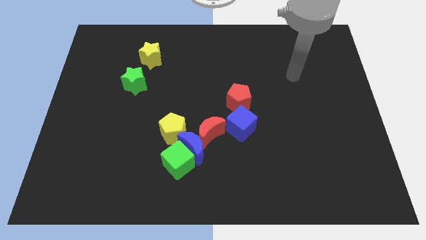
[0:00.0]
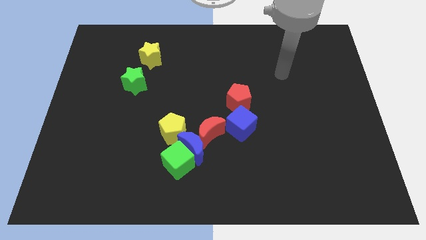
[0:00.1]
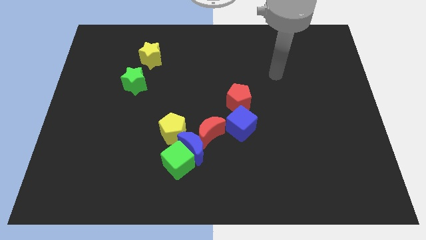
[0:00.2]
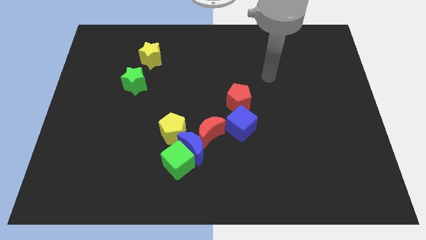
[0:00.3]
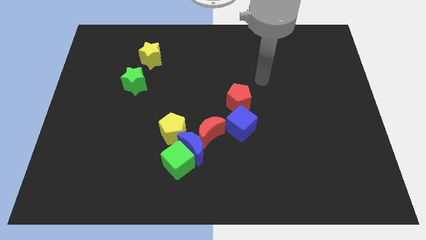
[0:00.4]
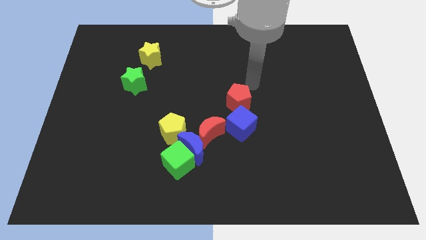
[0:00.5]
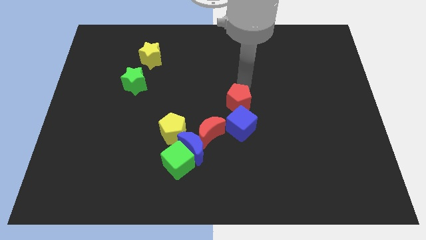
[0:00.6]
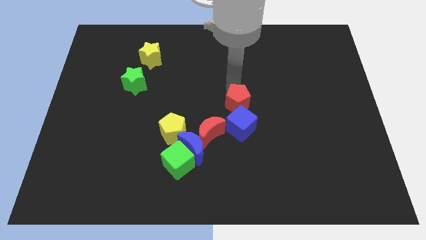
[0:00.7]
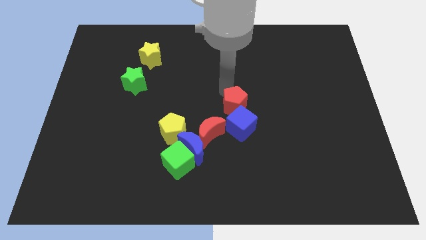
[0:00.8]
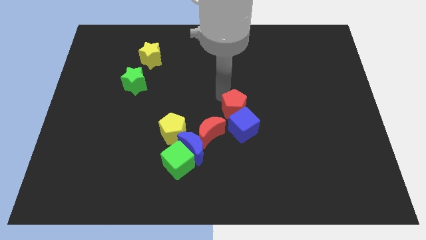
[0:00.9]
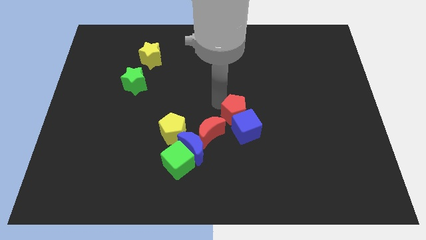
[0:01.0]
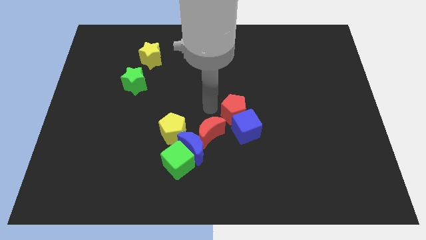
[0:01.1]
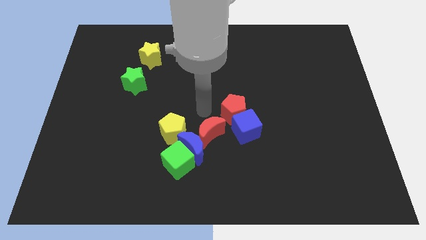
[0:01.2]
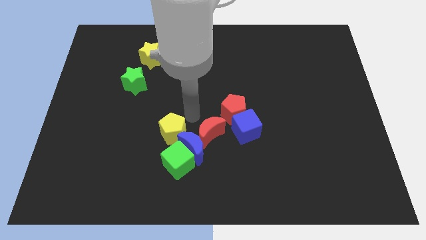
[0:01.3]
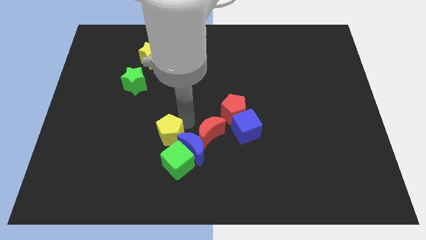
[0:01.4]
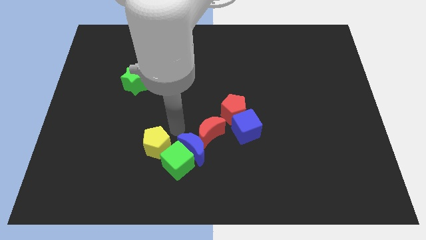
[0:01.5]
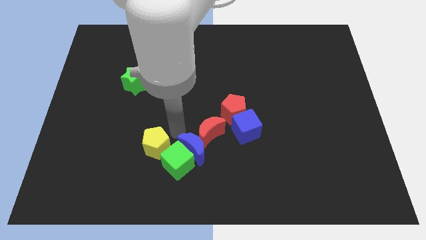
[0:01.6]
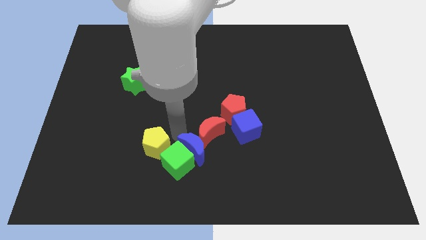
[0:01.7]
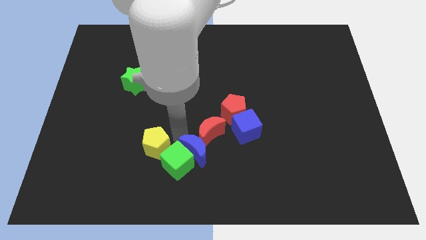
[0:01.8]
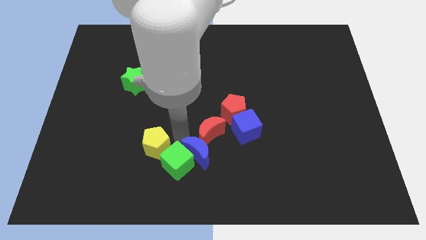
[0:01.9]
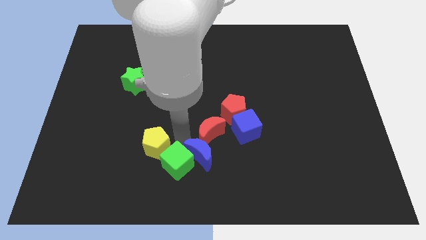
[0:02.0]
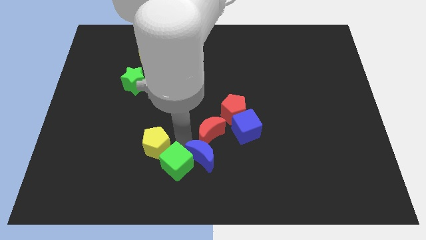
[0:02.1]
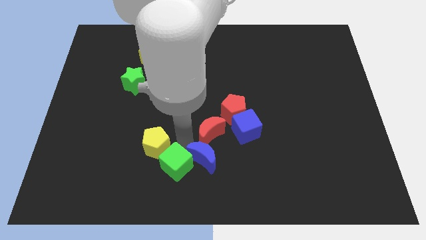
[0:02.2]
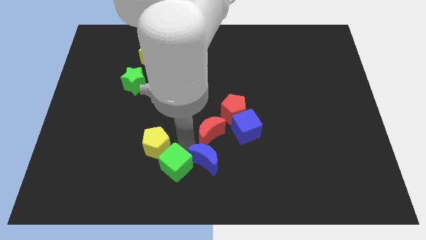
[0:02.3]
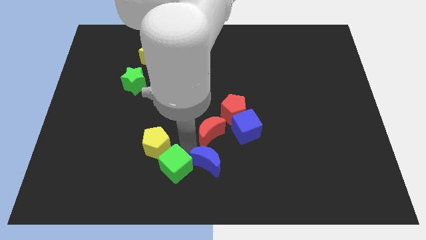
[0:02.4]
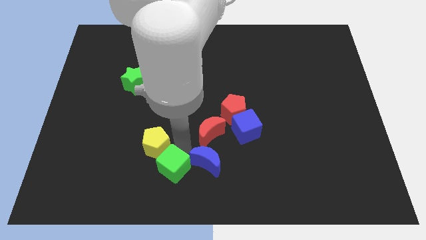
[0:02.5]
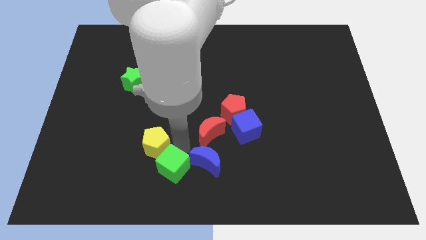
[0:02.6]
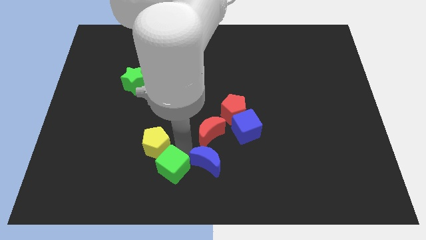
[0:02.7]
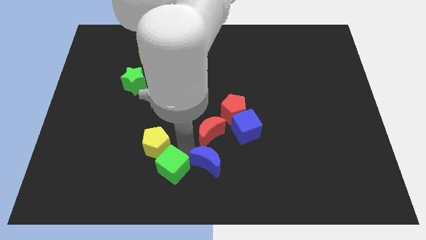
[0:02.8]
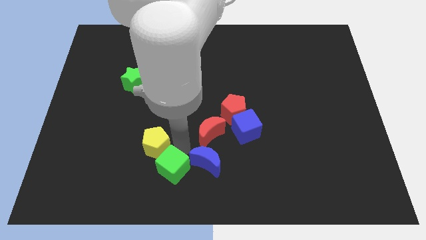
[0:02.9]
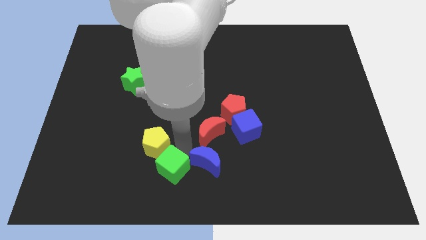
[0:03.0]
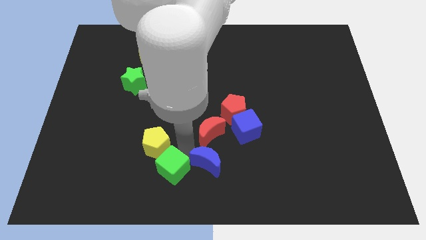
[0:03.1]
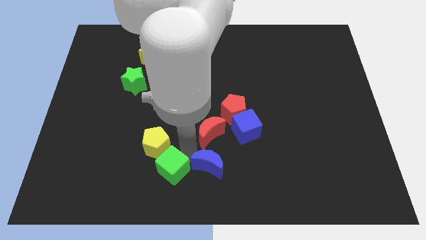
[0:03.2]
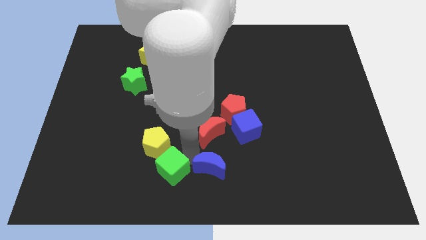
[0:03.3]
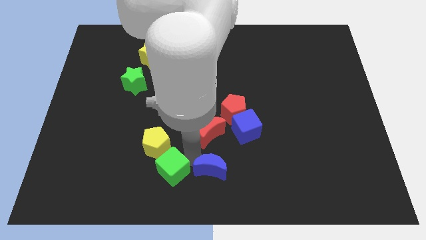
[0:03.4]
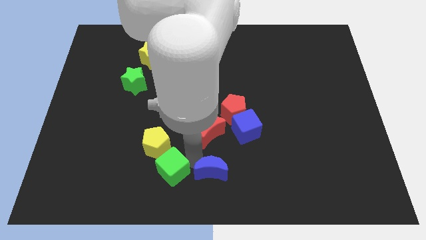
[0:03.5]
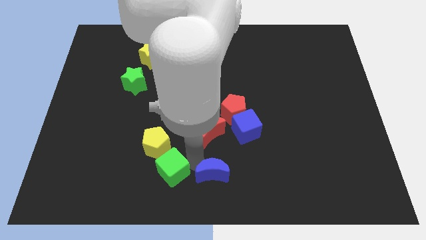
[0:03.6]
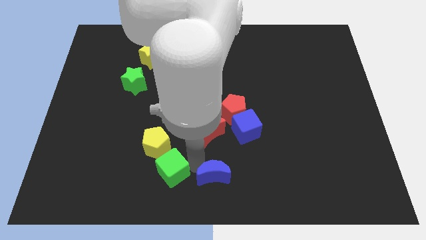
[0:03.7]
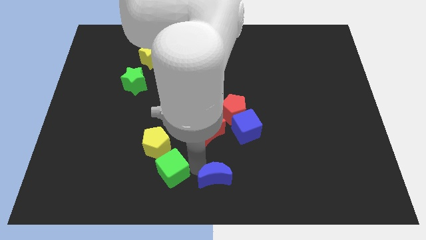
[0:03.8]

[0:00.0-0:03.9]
separate the blue moon from the green cube, red moon, and yellow pentagon

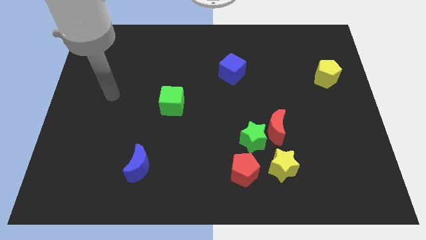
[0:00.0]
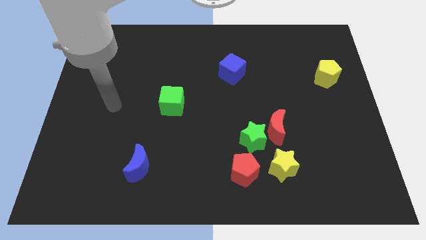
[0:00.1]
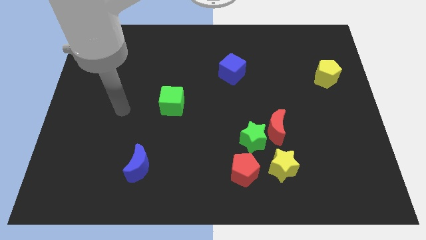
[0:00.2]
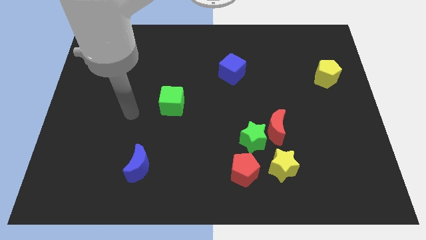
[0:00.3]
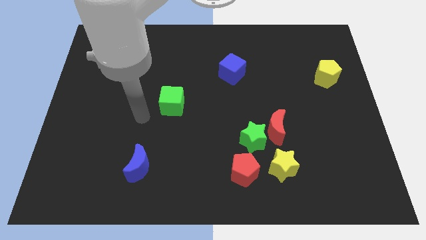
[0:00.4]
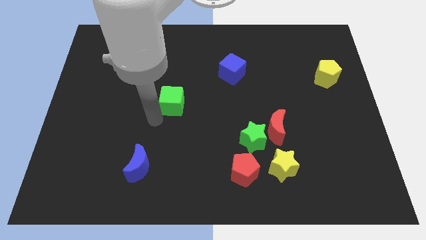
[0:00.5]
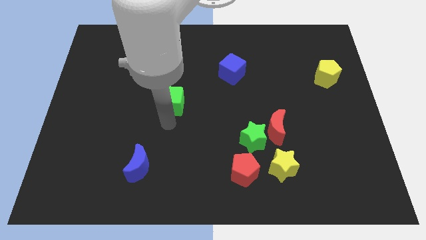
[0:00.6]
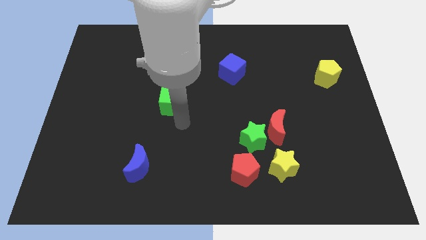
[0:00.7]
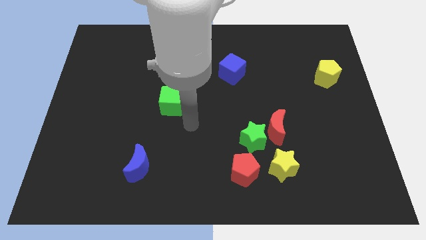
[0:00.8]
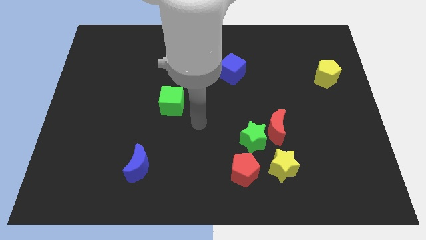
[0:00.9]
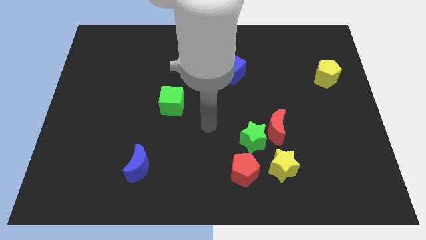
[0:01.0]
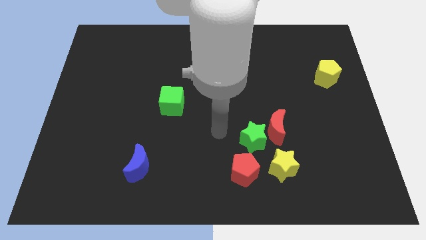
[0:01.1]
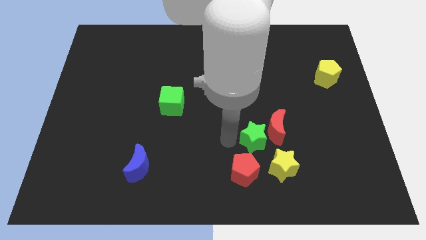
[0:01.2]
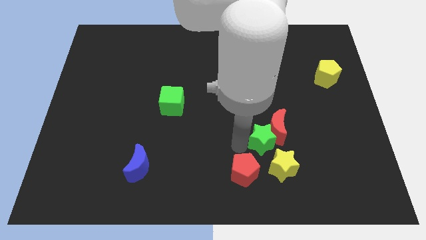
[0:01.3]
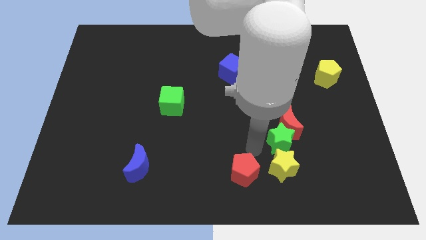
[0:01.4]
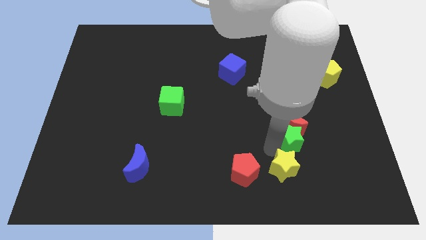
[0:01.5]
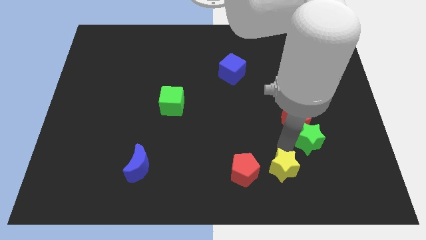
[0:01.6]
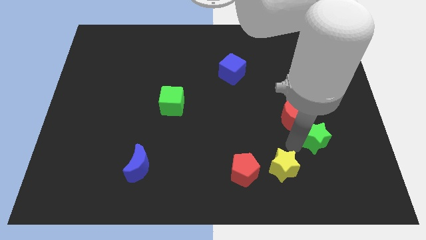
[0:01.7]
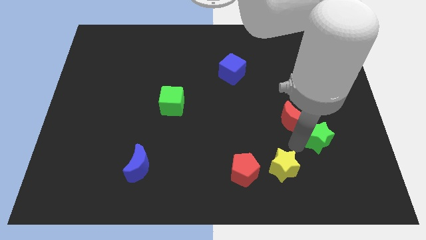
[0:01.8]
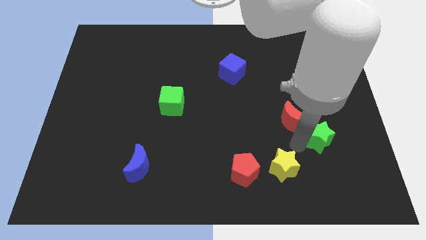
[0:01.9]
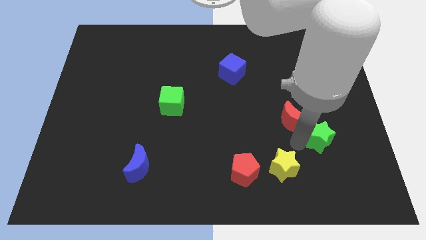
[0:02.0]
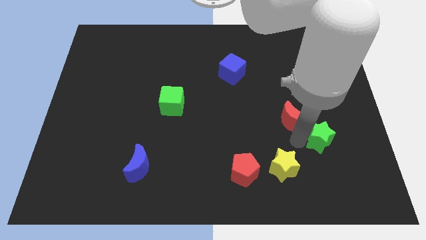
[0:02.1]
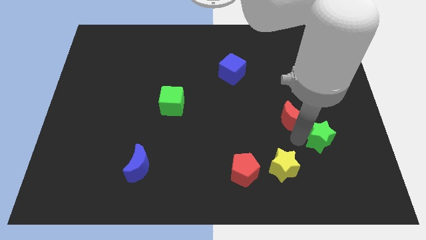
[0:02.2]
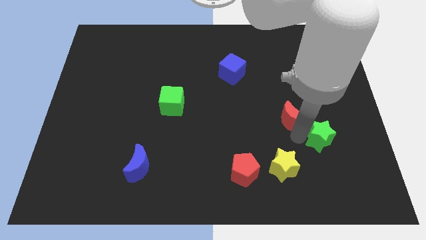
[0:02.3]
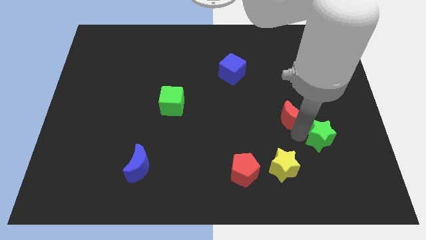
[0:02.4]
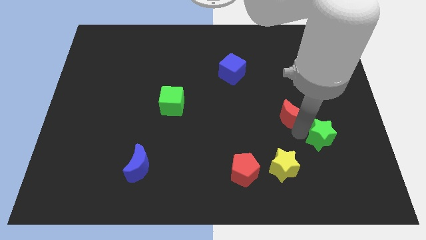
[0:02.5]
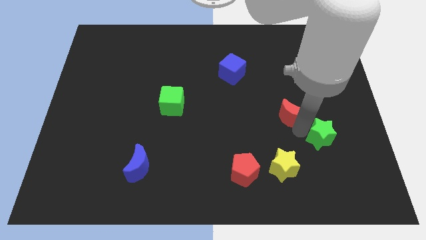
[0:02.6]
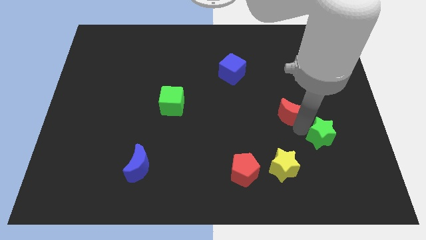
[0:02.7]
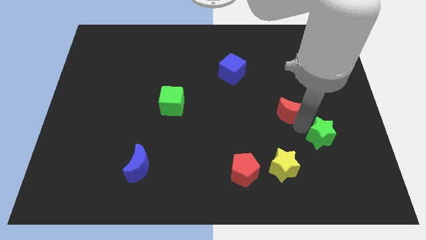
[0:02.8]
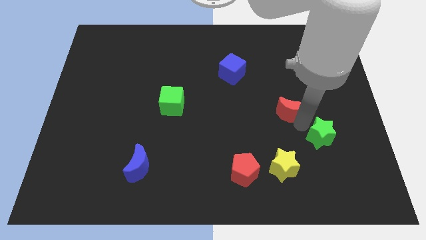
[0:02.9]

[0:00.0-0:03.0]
pull the red moon apart from the green star and yellow star

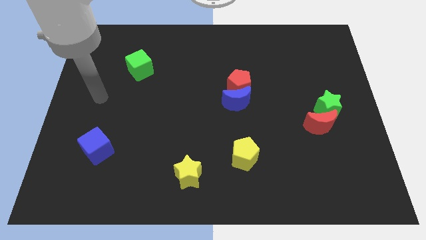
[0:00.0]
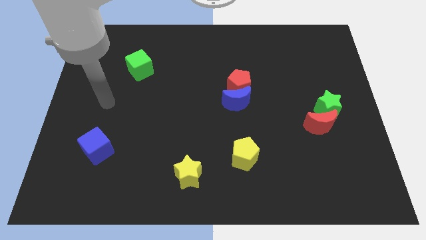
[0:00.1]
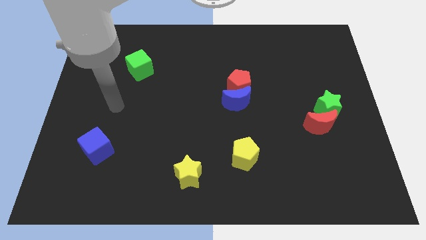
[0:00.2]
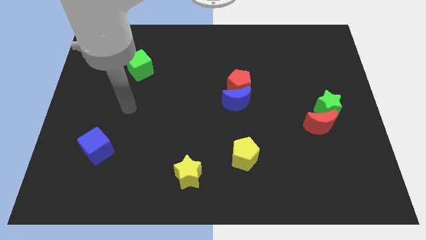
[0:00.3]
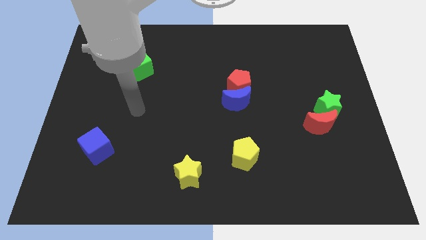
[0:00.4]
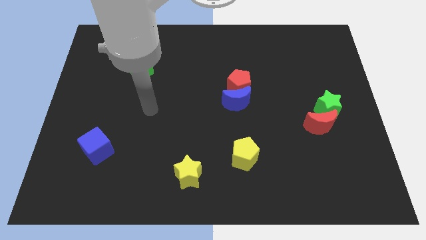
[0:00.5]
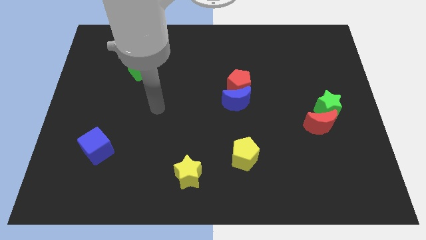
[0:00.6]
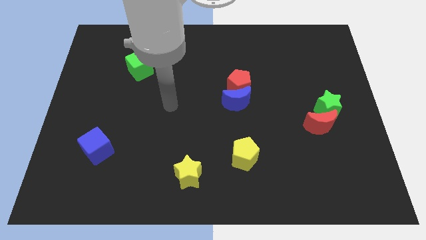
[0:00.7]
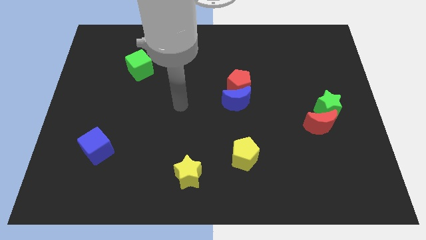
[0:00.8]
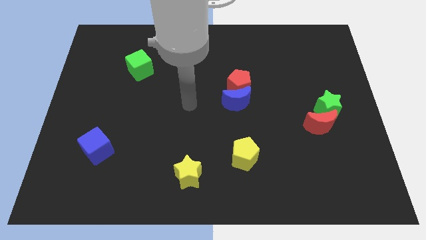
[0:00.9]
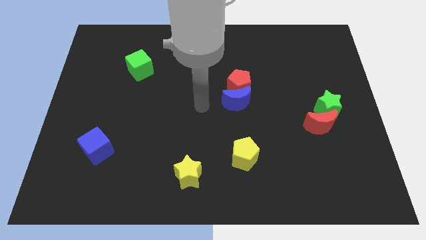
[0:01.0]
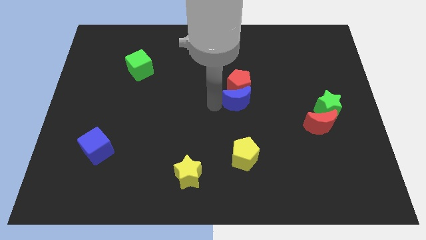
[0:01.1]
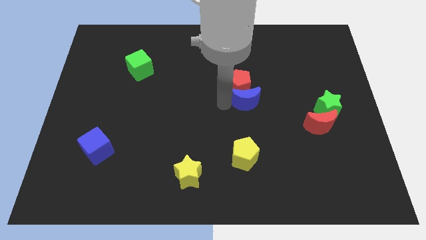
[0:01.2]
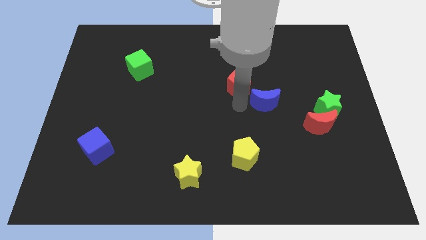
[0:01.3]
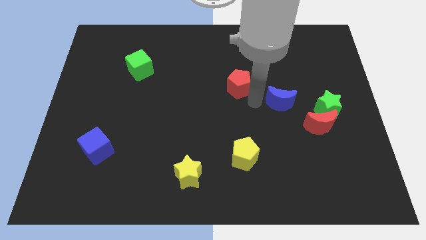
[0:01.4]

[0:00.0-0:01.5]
pull the red pentagon apart from the blue moon

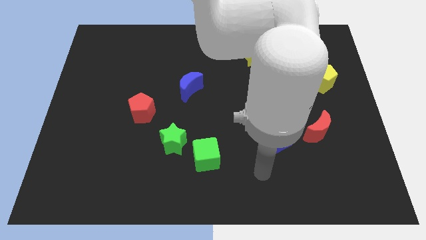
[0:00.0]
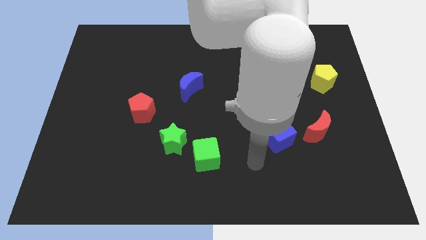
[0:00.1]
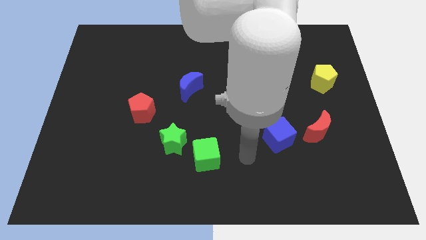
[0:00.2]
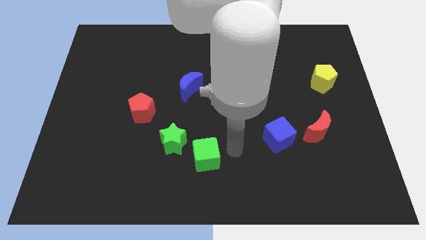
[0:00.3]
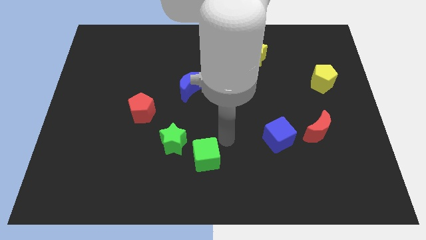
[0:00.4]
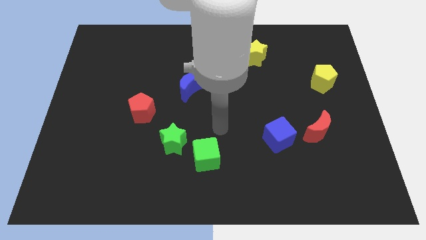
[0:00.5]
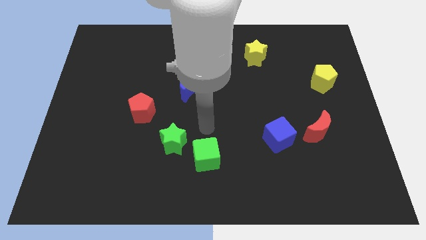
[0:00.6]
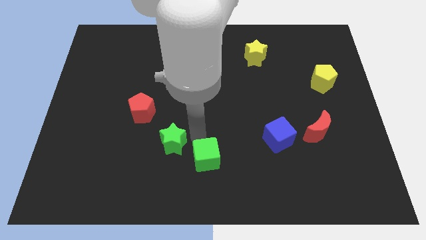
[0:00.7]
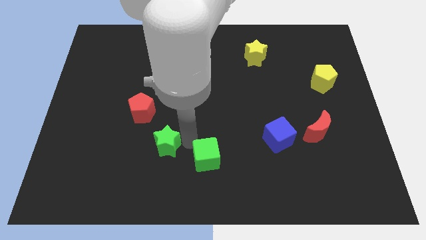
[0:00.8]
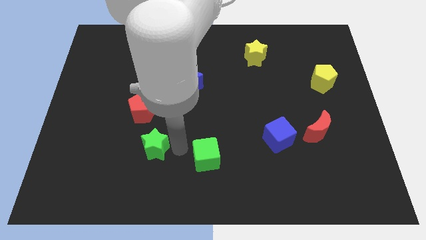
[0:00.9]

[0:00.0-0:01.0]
separate the green cube from the green star
